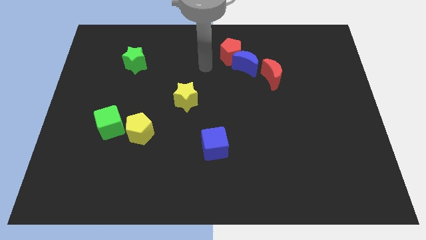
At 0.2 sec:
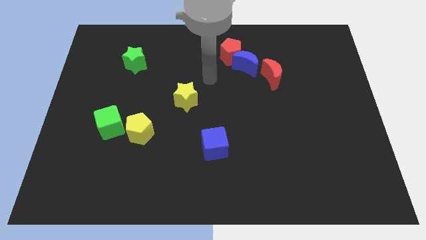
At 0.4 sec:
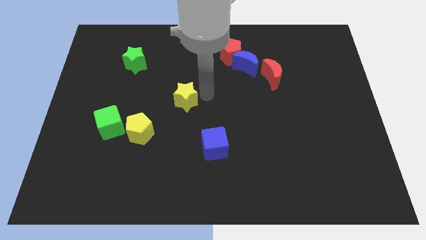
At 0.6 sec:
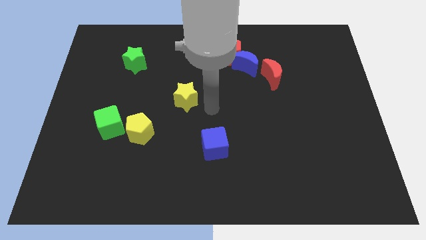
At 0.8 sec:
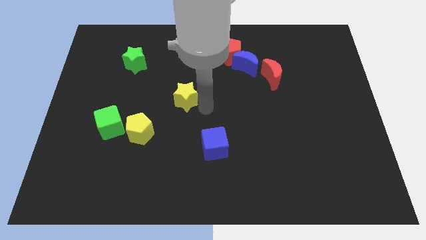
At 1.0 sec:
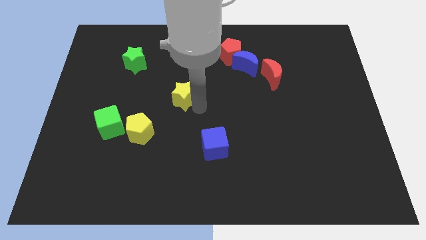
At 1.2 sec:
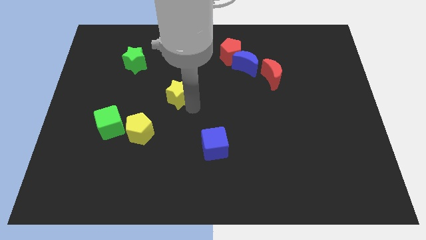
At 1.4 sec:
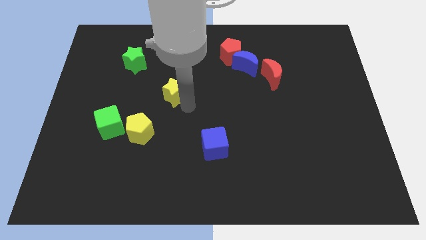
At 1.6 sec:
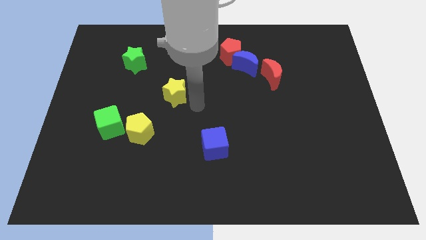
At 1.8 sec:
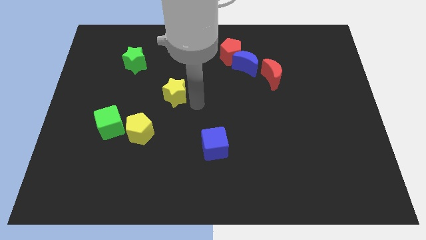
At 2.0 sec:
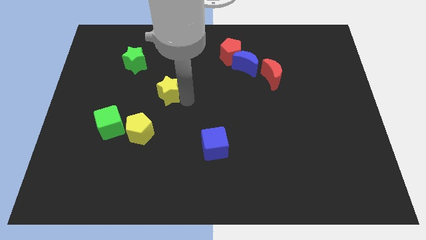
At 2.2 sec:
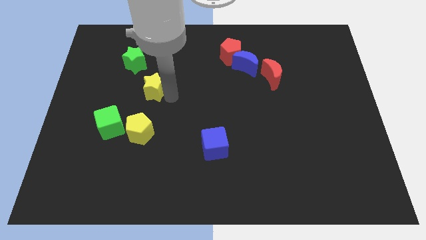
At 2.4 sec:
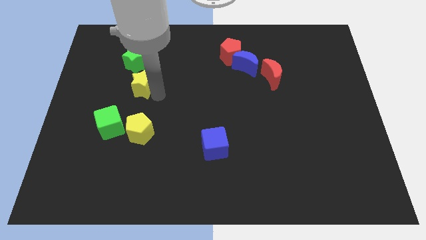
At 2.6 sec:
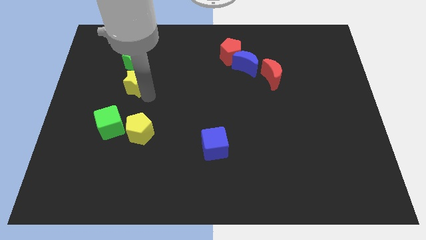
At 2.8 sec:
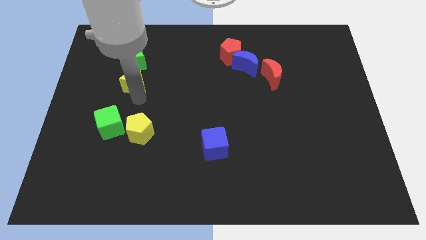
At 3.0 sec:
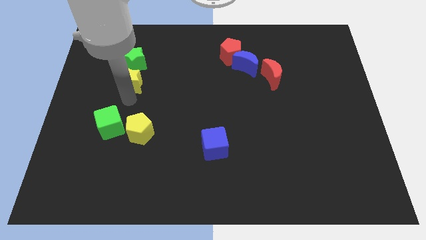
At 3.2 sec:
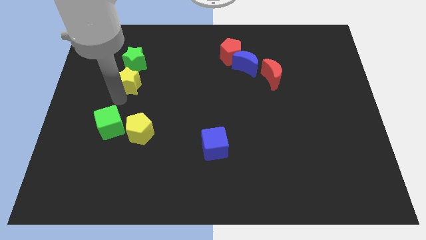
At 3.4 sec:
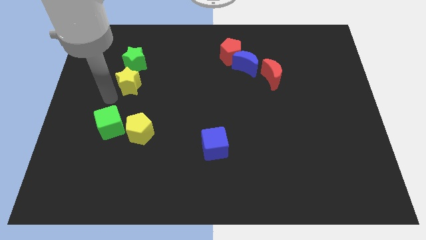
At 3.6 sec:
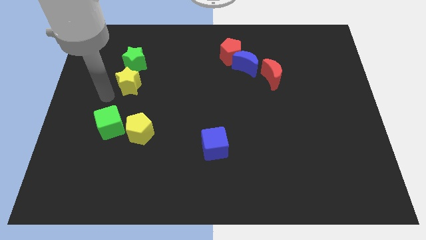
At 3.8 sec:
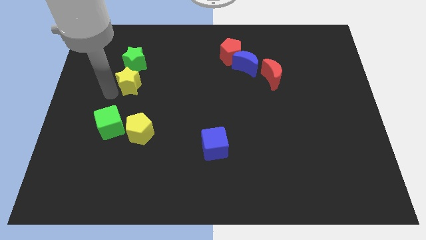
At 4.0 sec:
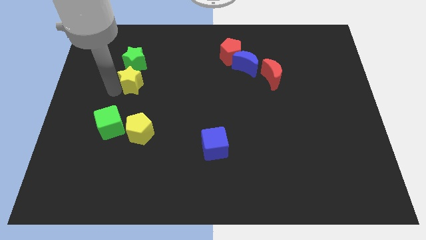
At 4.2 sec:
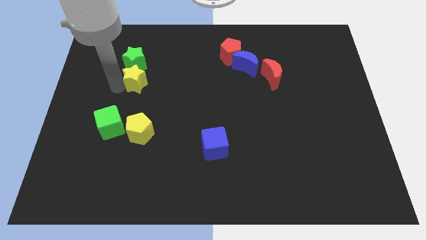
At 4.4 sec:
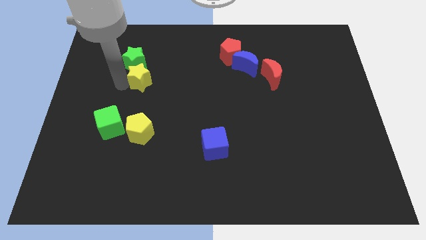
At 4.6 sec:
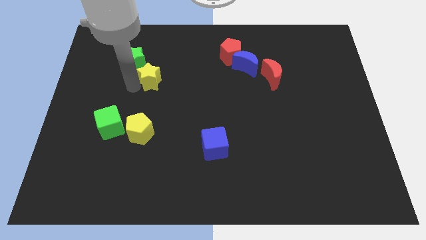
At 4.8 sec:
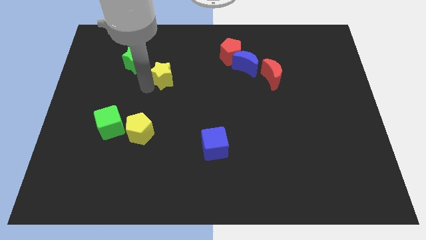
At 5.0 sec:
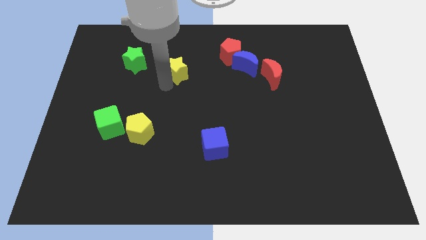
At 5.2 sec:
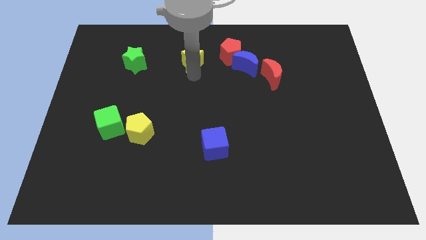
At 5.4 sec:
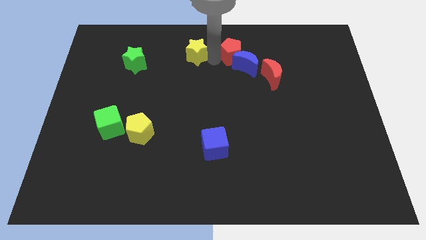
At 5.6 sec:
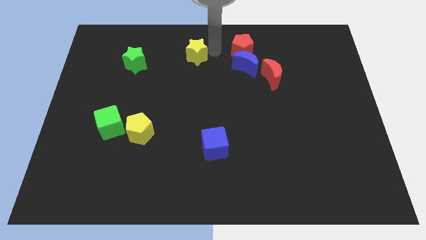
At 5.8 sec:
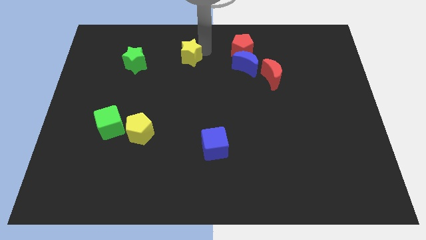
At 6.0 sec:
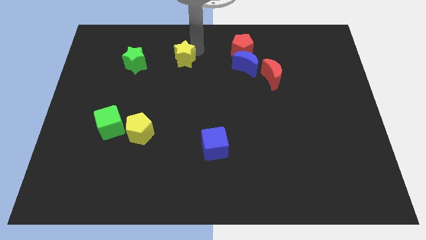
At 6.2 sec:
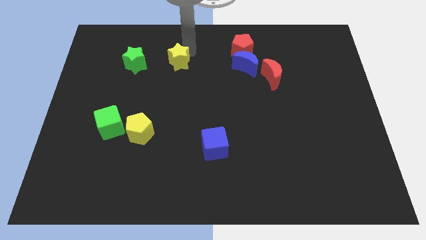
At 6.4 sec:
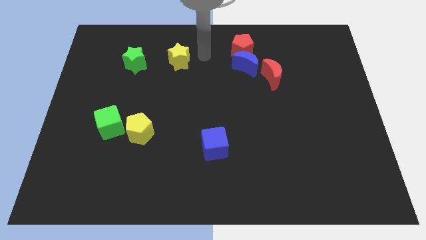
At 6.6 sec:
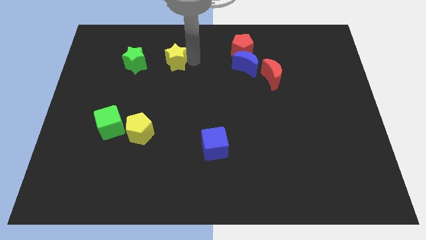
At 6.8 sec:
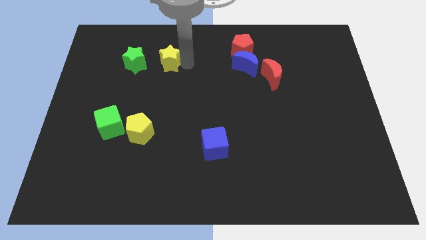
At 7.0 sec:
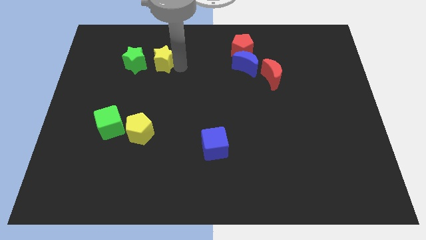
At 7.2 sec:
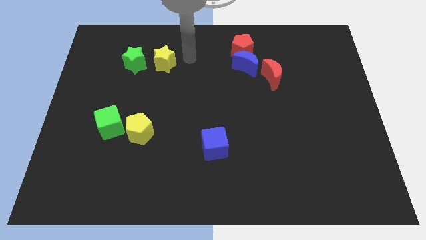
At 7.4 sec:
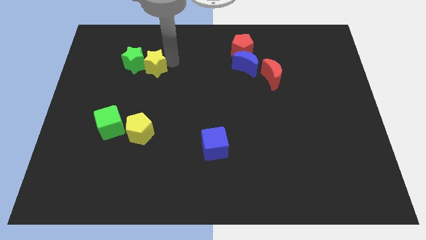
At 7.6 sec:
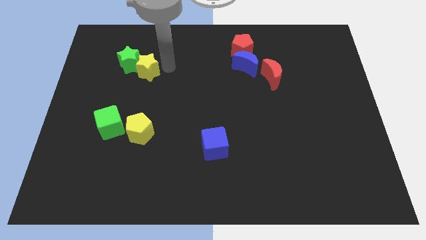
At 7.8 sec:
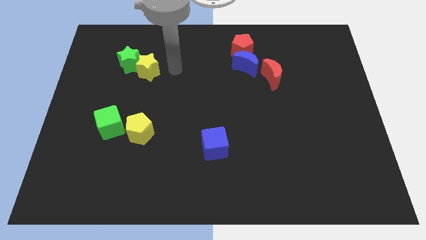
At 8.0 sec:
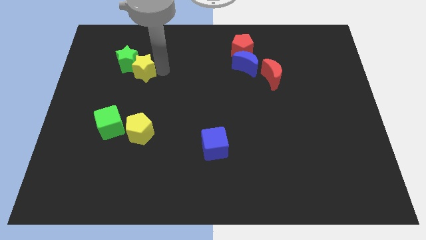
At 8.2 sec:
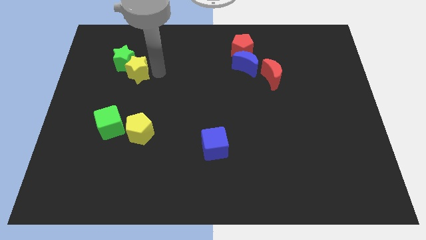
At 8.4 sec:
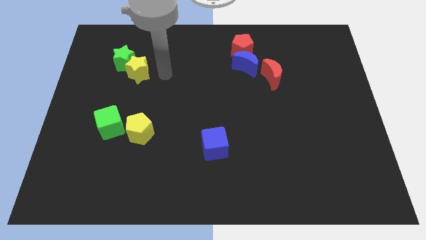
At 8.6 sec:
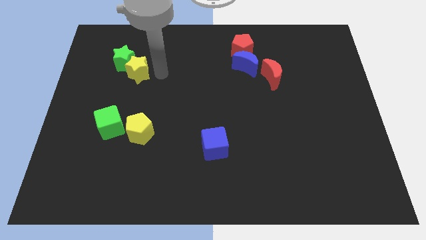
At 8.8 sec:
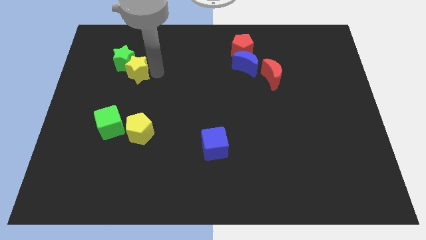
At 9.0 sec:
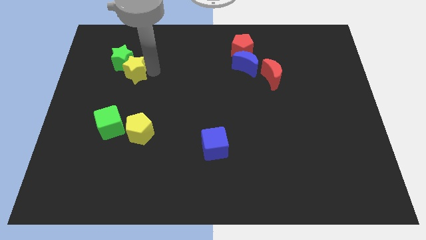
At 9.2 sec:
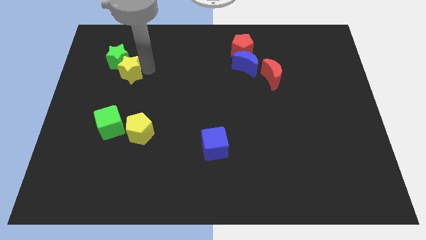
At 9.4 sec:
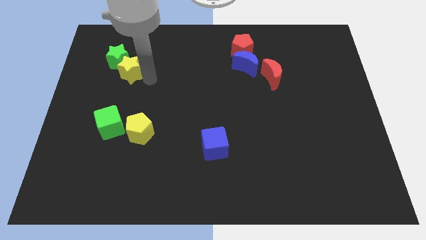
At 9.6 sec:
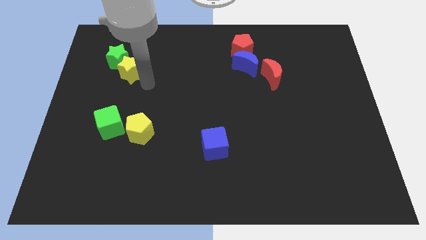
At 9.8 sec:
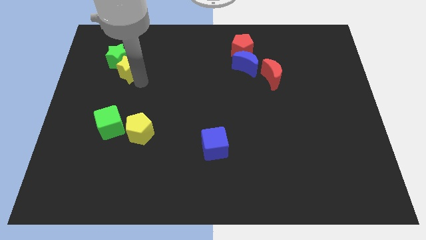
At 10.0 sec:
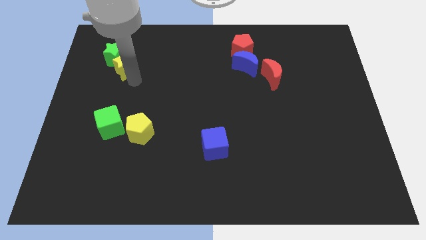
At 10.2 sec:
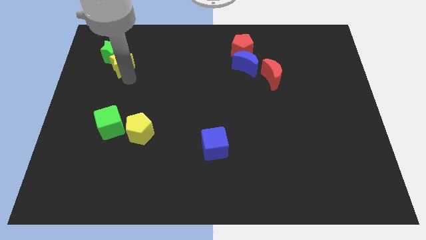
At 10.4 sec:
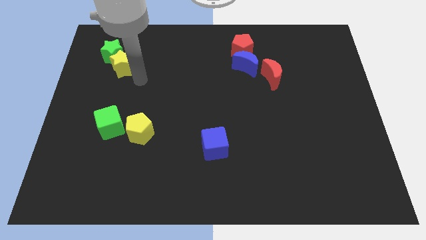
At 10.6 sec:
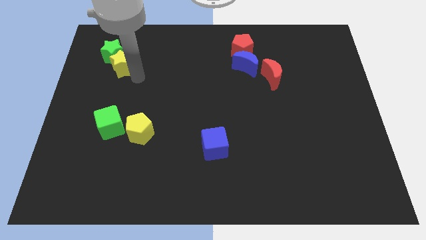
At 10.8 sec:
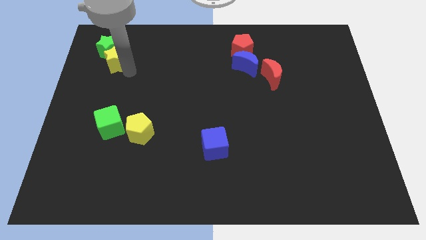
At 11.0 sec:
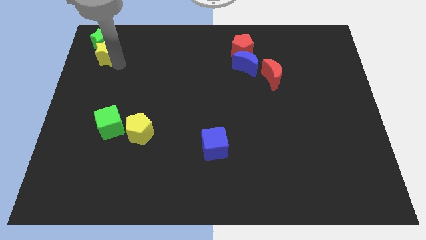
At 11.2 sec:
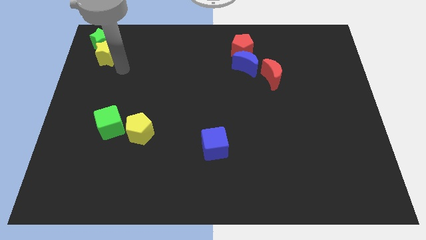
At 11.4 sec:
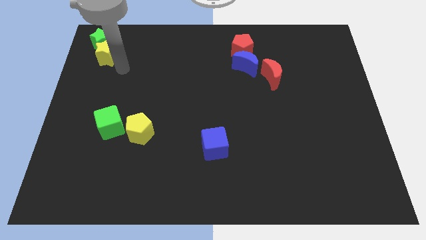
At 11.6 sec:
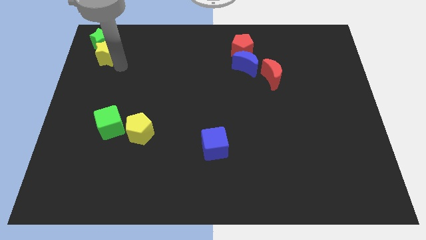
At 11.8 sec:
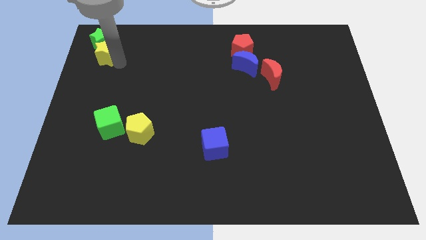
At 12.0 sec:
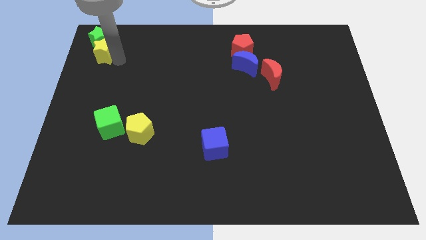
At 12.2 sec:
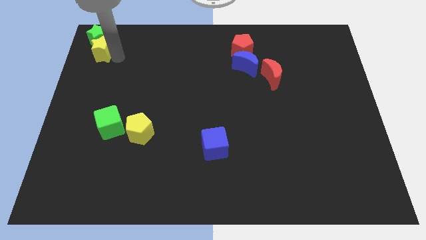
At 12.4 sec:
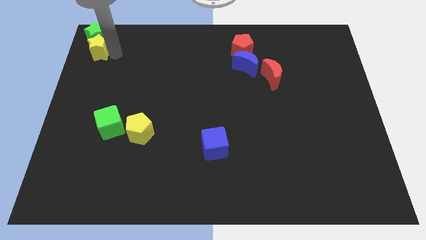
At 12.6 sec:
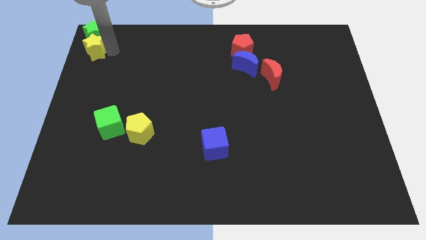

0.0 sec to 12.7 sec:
slide the yellow star to the upper left corner

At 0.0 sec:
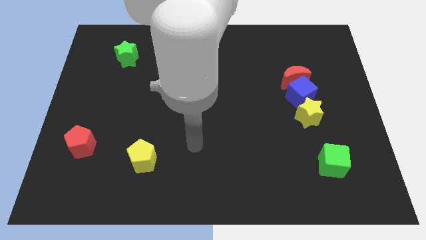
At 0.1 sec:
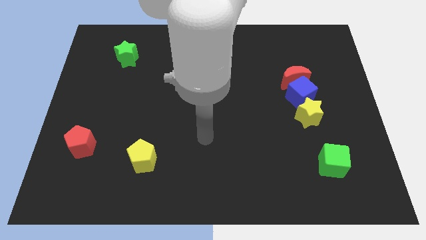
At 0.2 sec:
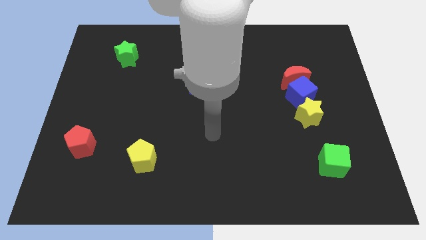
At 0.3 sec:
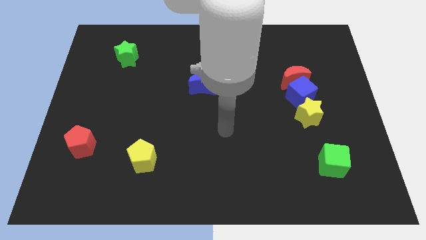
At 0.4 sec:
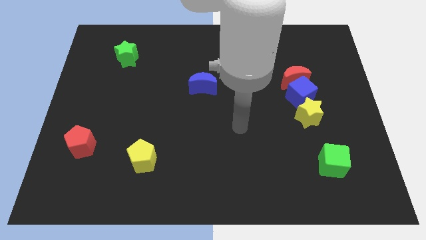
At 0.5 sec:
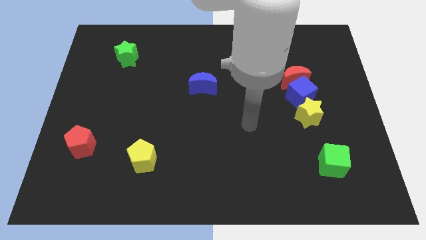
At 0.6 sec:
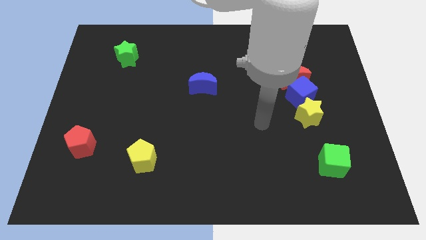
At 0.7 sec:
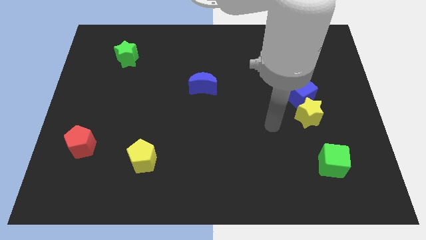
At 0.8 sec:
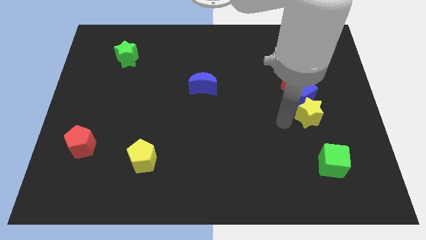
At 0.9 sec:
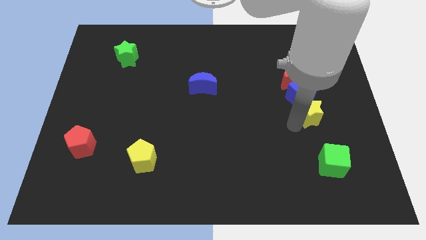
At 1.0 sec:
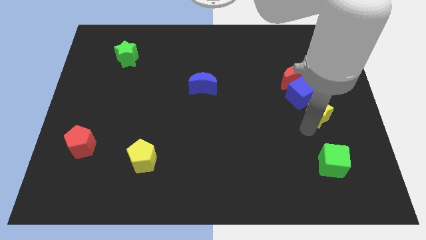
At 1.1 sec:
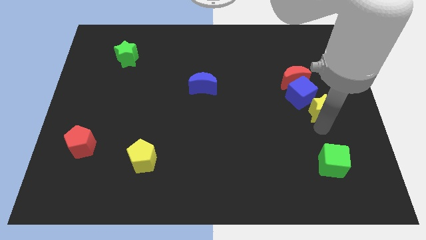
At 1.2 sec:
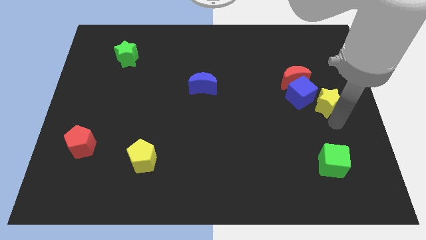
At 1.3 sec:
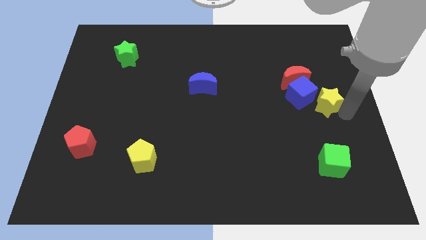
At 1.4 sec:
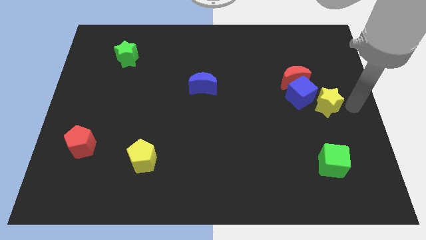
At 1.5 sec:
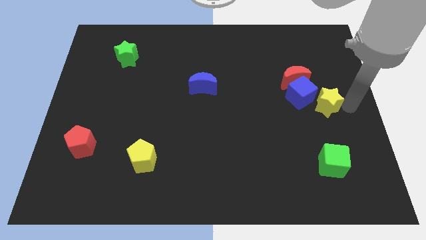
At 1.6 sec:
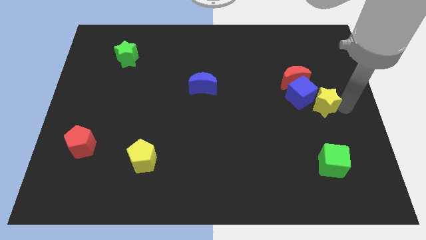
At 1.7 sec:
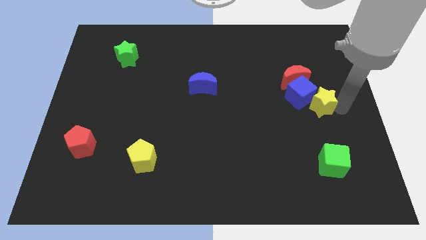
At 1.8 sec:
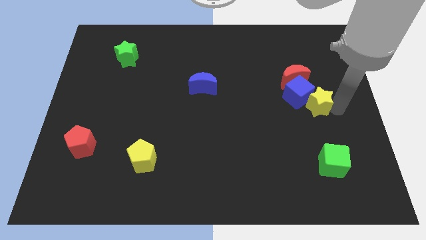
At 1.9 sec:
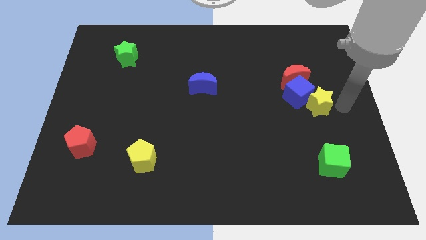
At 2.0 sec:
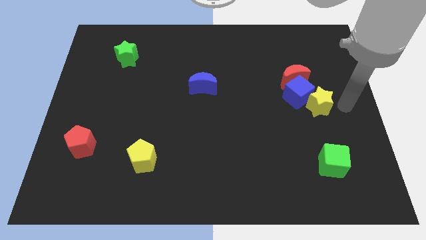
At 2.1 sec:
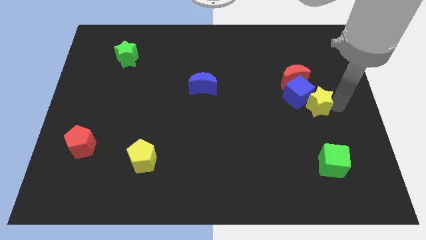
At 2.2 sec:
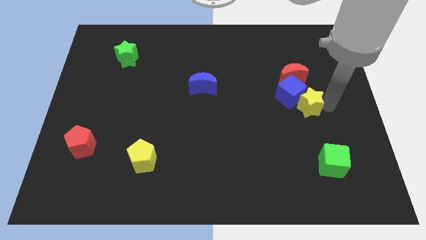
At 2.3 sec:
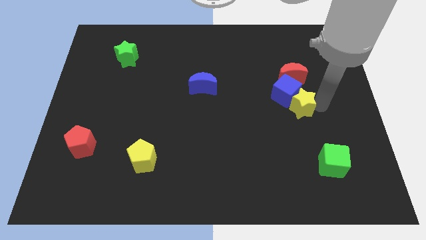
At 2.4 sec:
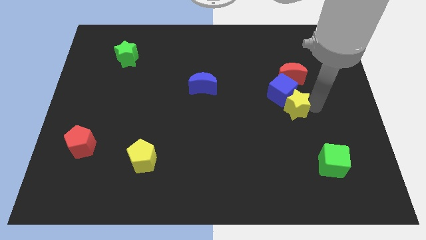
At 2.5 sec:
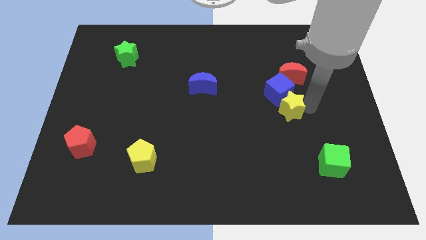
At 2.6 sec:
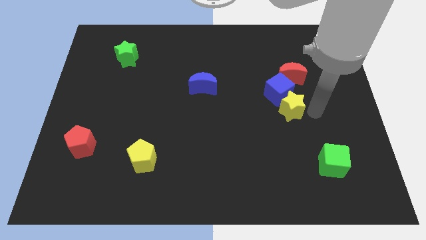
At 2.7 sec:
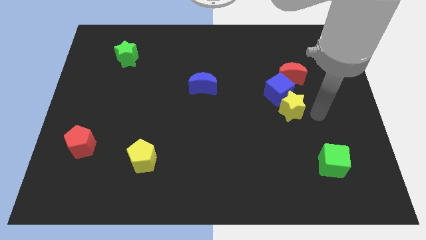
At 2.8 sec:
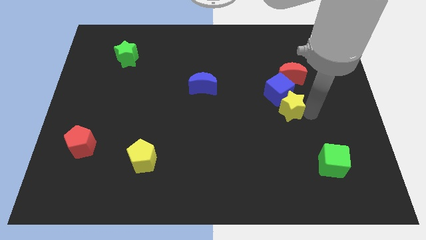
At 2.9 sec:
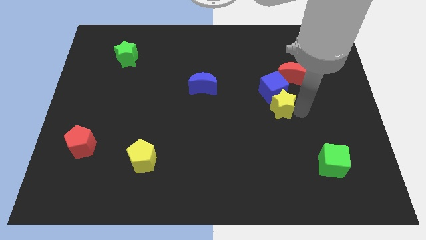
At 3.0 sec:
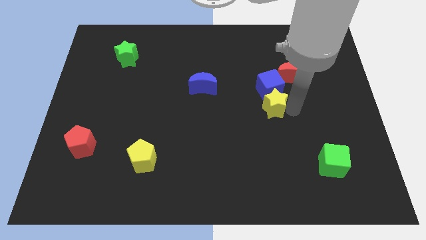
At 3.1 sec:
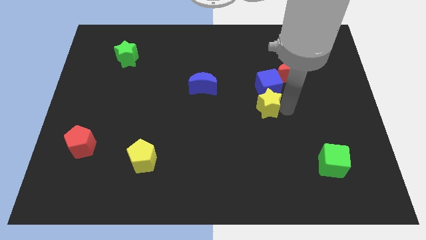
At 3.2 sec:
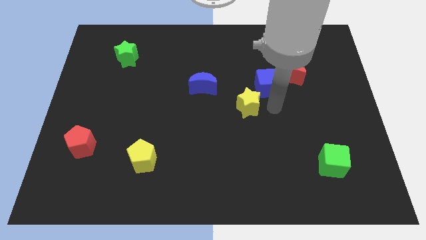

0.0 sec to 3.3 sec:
slide the yellow star to the center of the board
